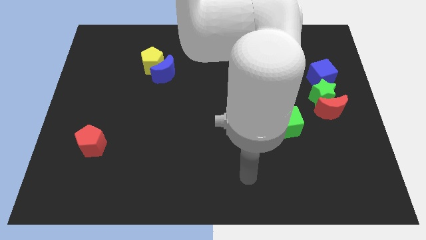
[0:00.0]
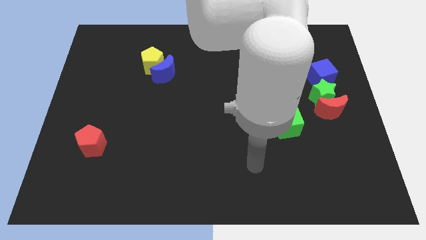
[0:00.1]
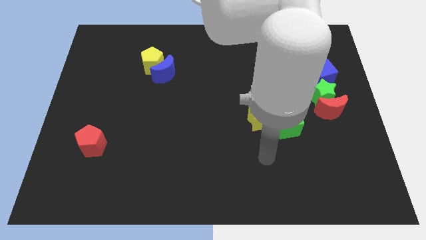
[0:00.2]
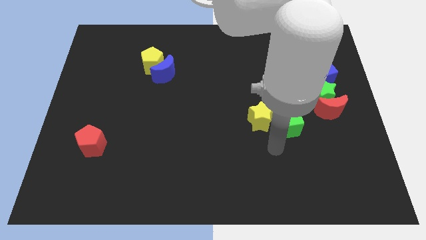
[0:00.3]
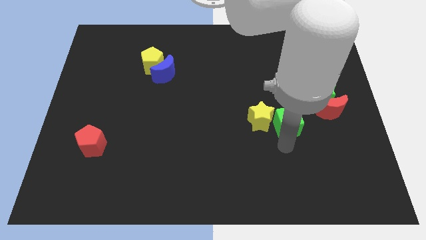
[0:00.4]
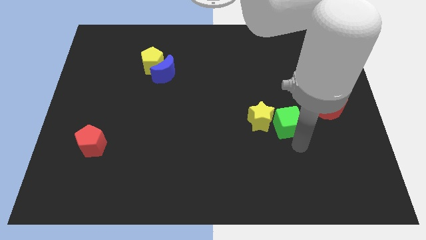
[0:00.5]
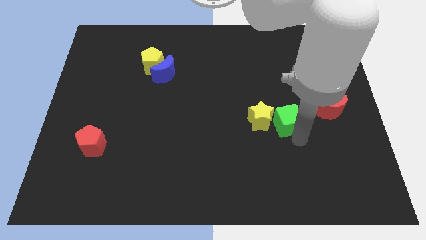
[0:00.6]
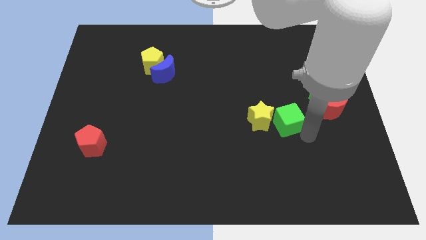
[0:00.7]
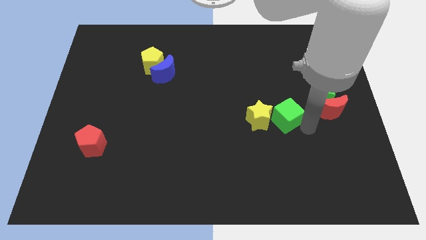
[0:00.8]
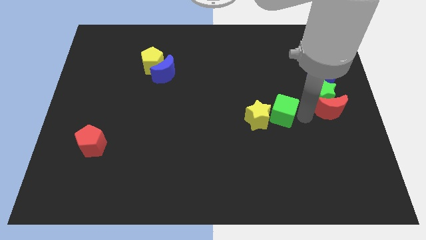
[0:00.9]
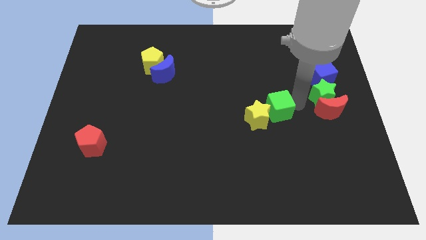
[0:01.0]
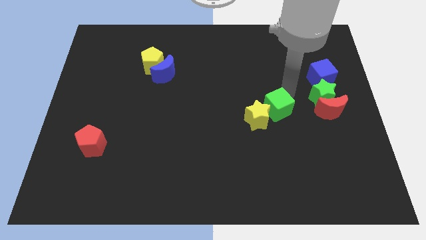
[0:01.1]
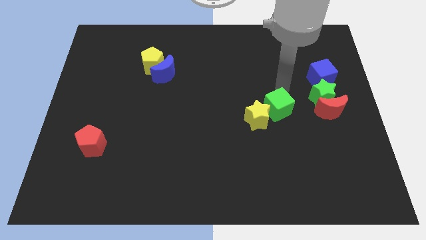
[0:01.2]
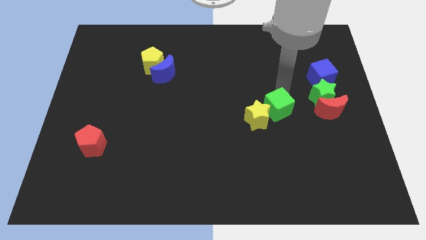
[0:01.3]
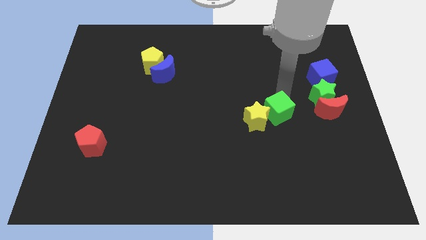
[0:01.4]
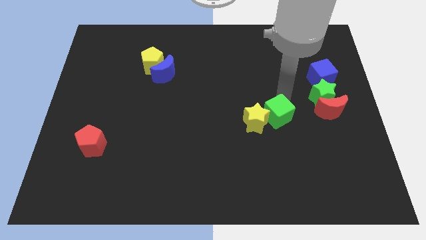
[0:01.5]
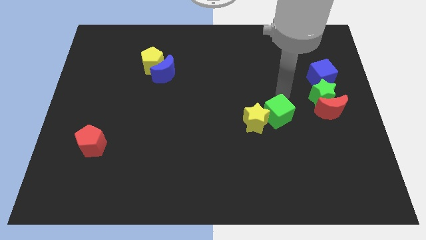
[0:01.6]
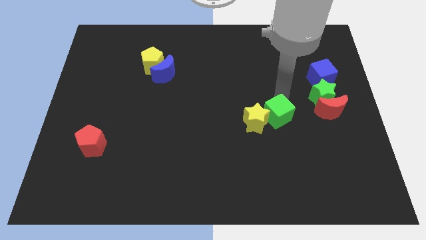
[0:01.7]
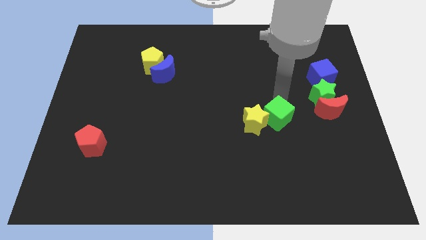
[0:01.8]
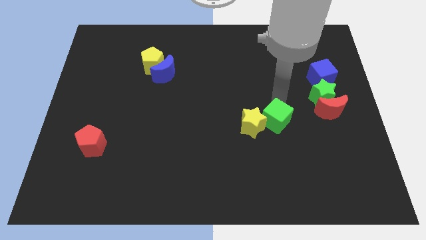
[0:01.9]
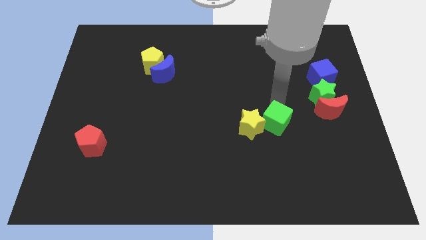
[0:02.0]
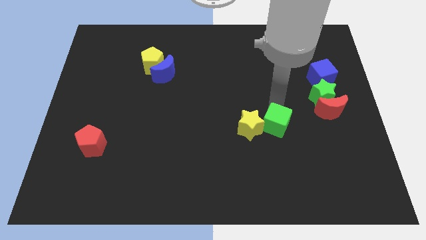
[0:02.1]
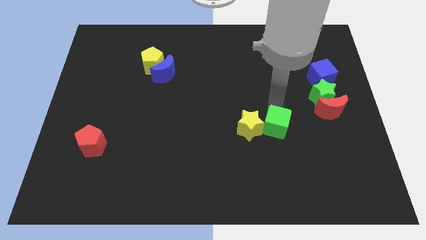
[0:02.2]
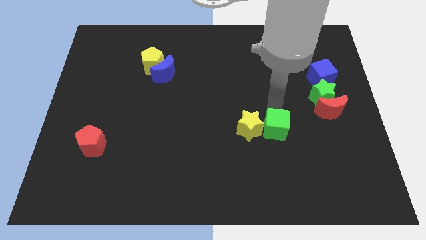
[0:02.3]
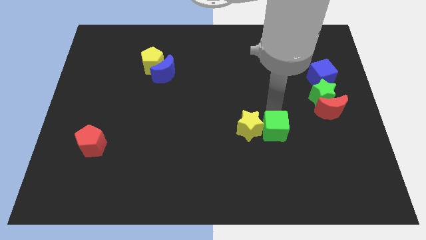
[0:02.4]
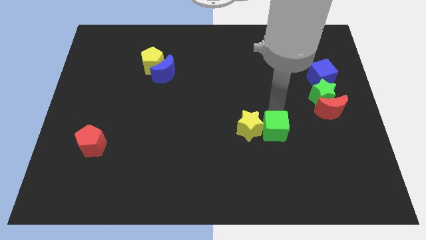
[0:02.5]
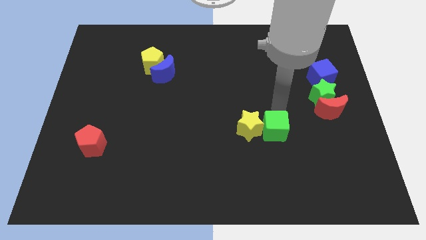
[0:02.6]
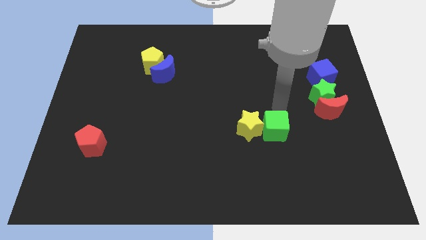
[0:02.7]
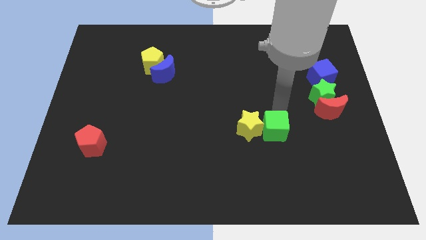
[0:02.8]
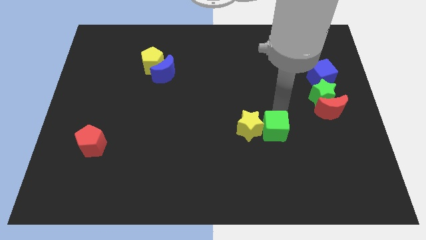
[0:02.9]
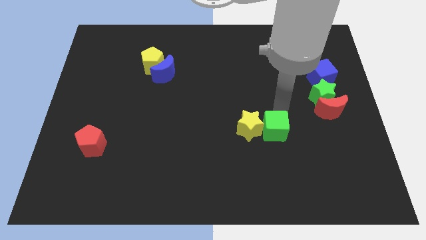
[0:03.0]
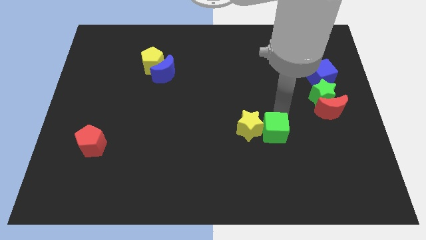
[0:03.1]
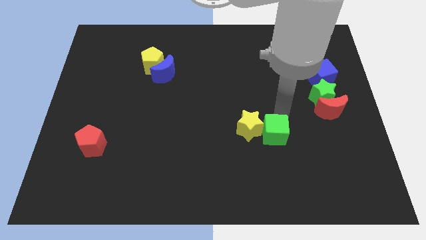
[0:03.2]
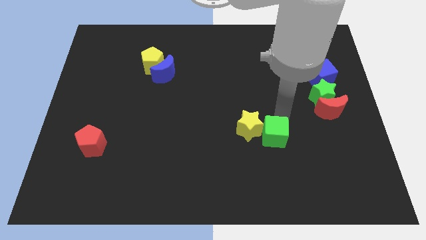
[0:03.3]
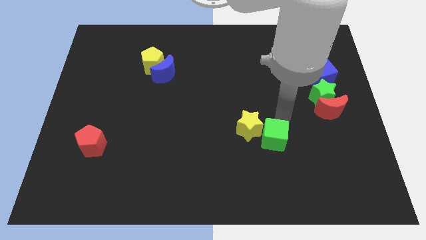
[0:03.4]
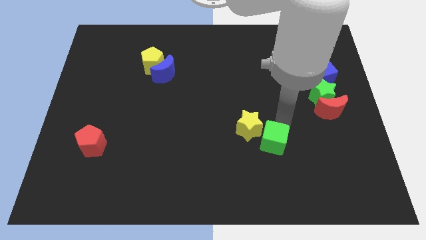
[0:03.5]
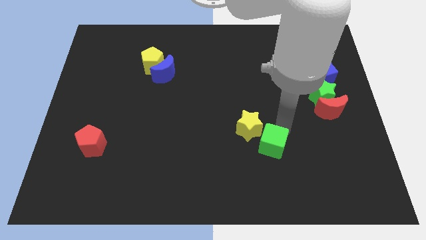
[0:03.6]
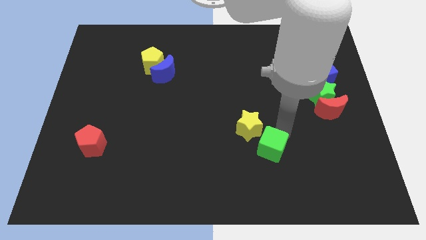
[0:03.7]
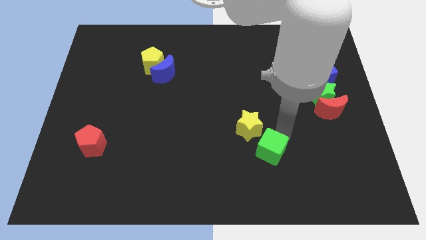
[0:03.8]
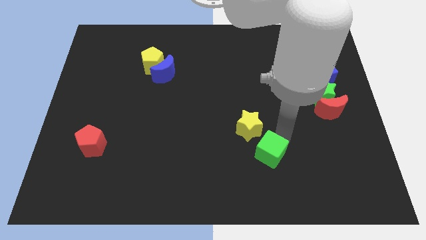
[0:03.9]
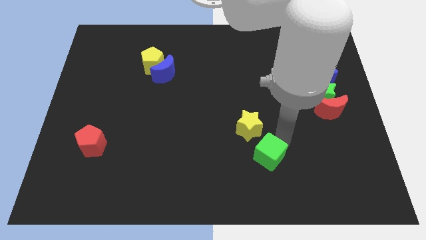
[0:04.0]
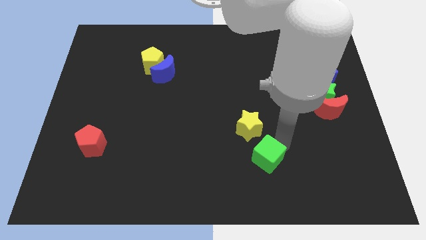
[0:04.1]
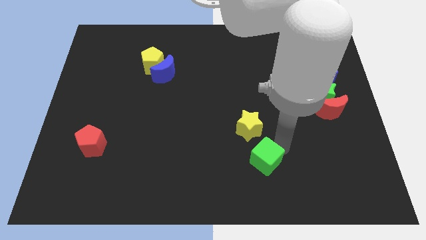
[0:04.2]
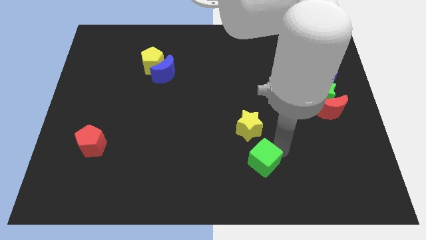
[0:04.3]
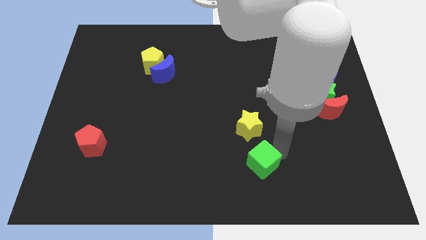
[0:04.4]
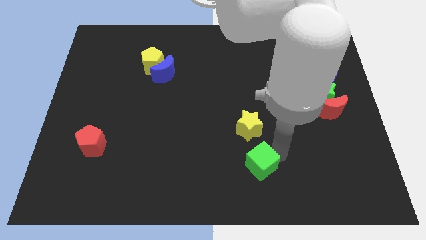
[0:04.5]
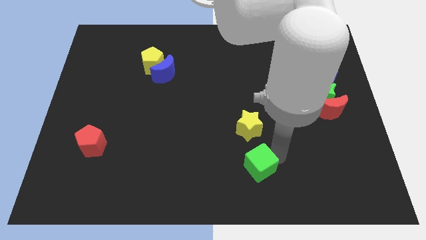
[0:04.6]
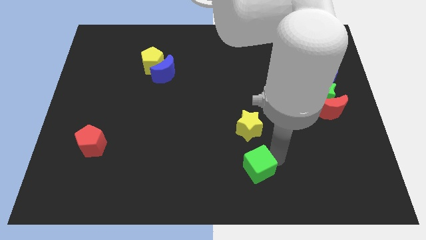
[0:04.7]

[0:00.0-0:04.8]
put the green cube to the bottom side

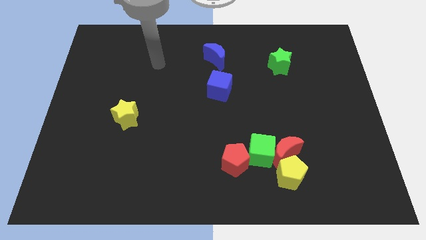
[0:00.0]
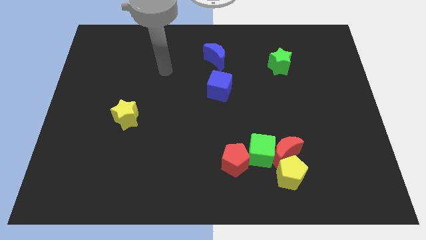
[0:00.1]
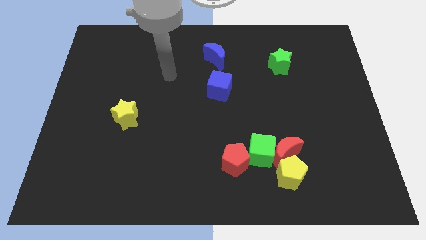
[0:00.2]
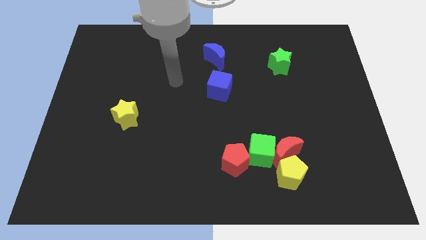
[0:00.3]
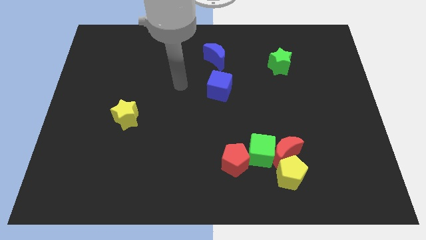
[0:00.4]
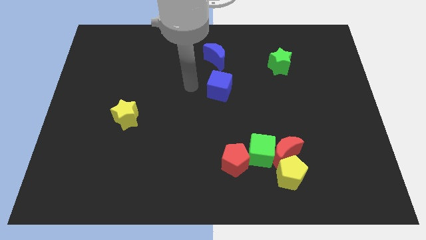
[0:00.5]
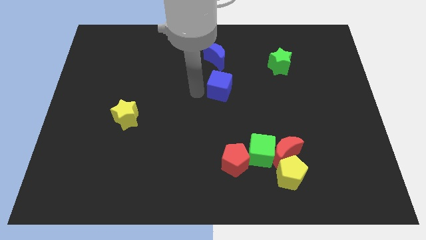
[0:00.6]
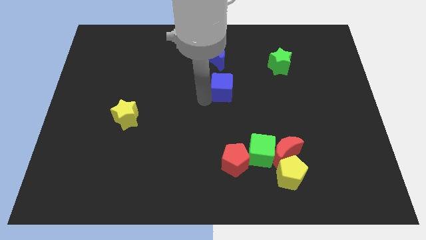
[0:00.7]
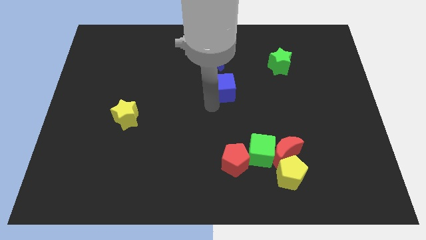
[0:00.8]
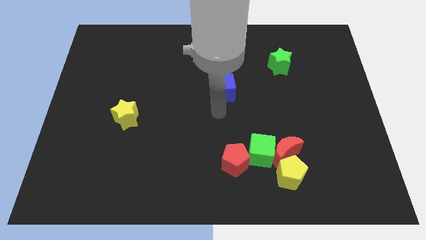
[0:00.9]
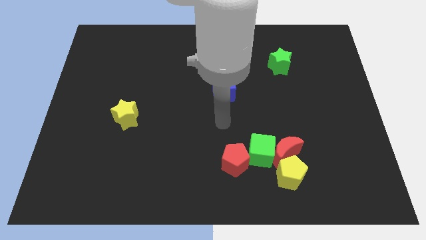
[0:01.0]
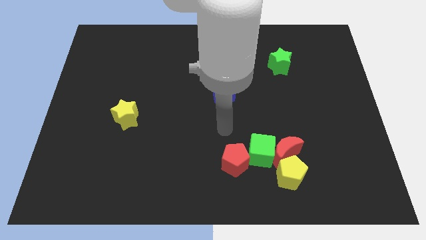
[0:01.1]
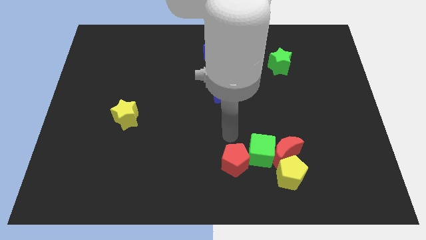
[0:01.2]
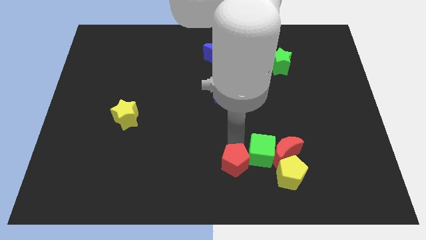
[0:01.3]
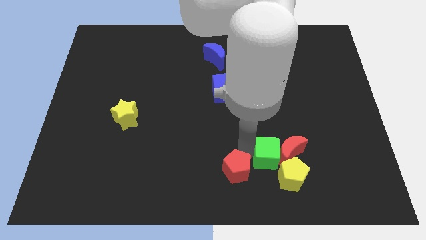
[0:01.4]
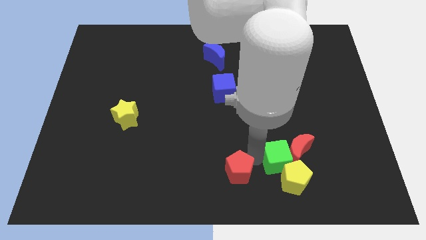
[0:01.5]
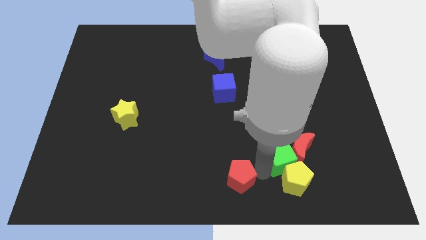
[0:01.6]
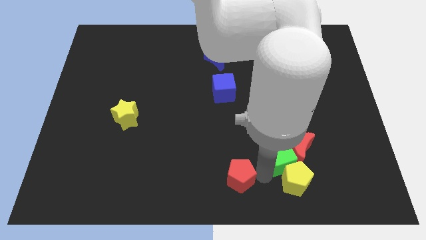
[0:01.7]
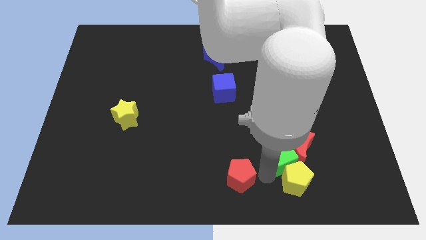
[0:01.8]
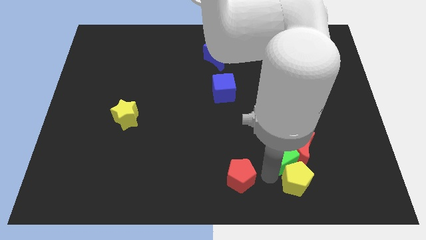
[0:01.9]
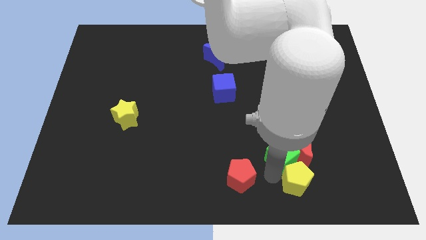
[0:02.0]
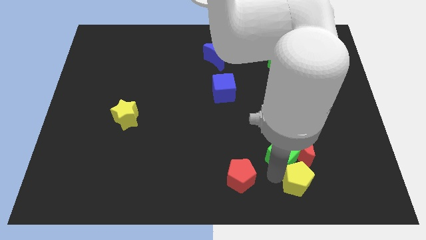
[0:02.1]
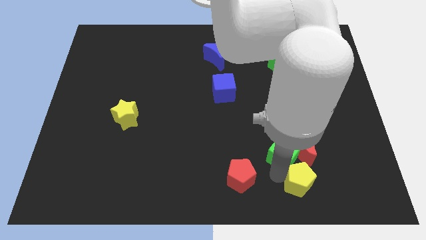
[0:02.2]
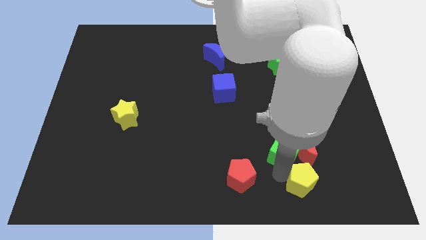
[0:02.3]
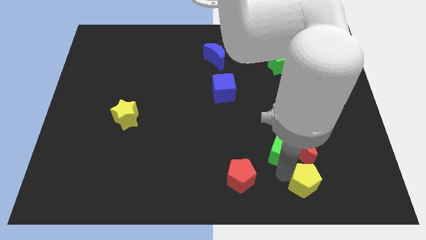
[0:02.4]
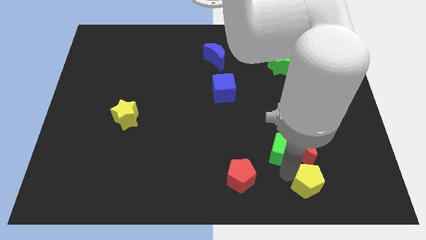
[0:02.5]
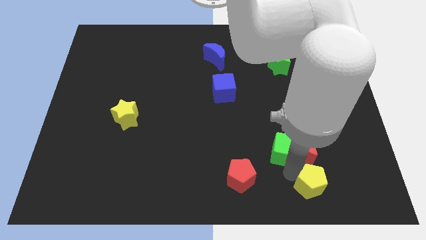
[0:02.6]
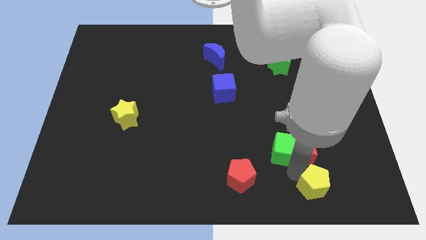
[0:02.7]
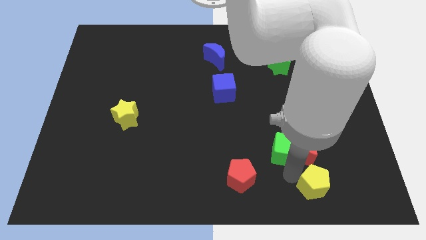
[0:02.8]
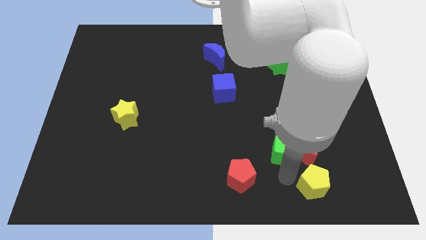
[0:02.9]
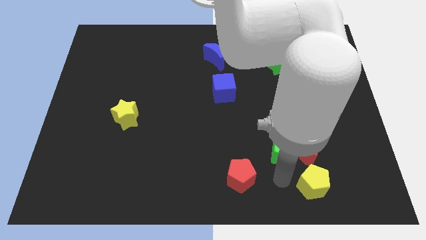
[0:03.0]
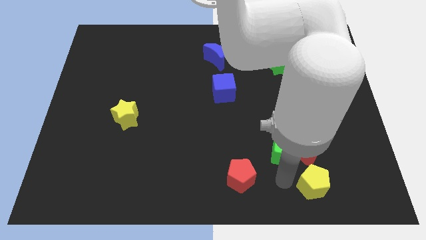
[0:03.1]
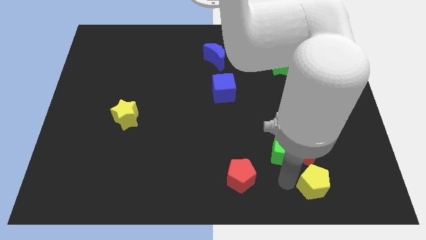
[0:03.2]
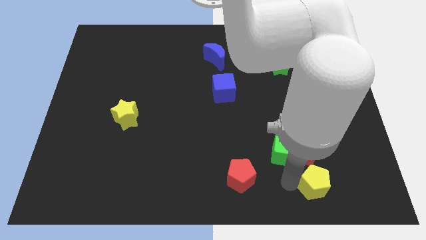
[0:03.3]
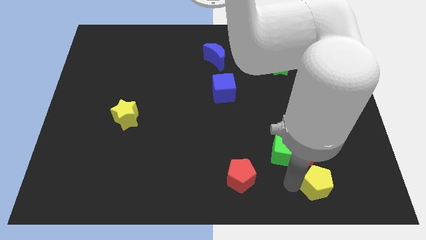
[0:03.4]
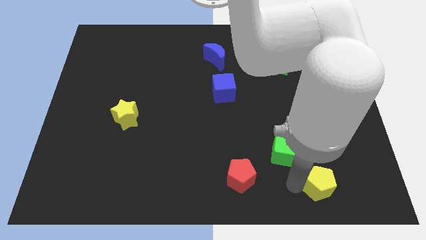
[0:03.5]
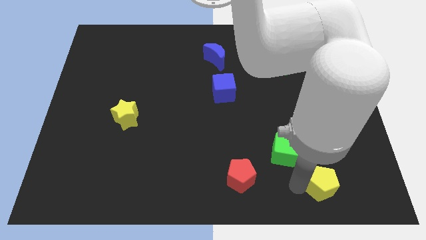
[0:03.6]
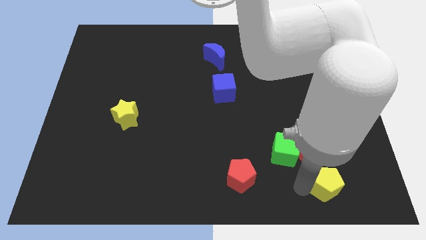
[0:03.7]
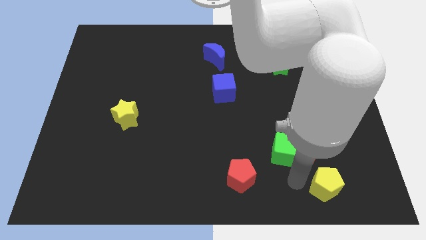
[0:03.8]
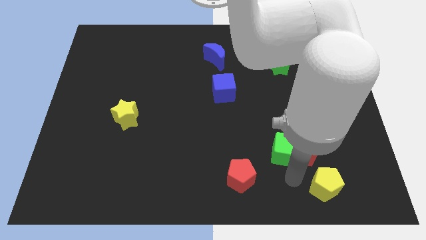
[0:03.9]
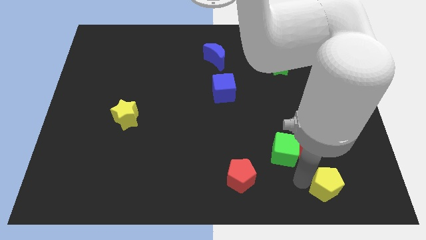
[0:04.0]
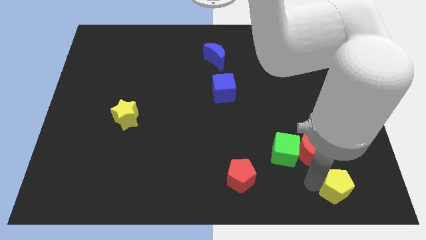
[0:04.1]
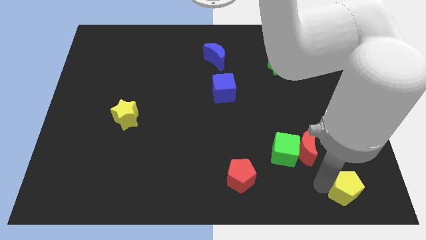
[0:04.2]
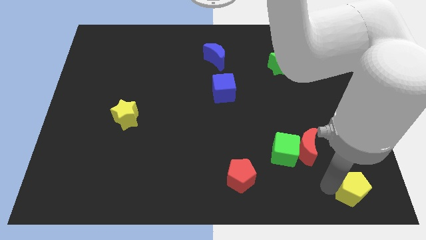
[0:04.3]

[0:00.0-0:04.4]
put the yellow pentagon to the bottom right of the board
